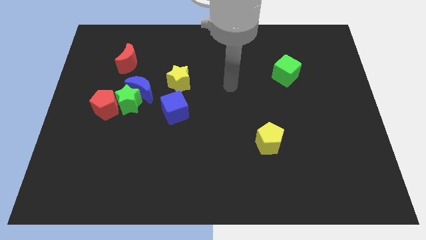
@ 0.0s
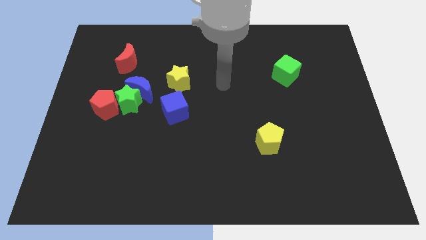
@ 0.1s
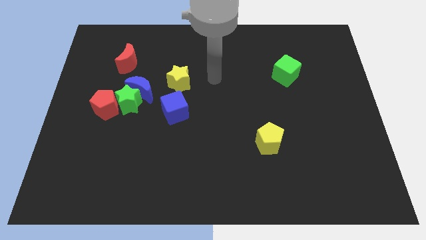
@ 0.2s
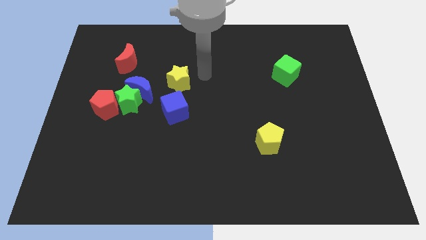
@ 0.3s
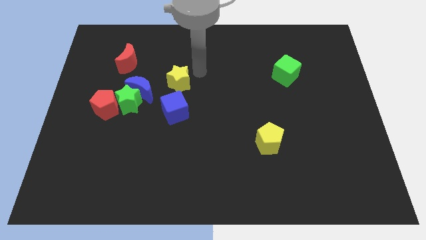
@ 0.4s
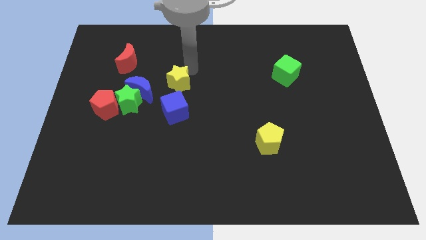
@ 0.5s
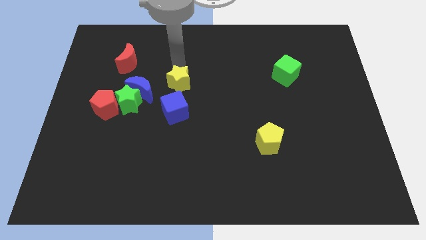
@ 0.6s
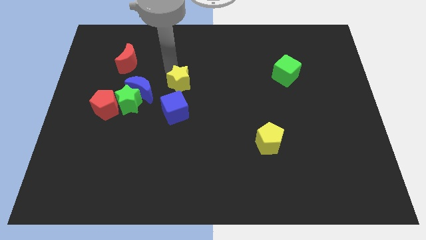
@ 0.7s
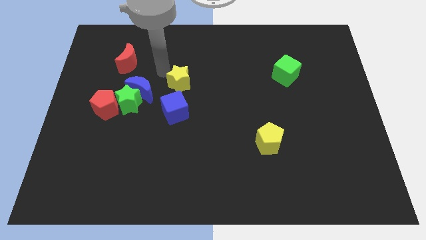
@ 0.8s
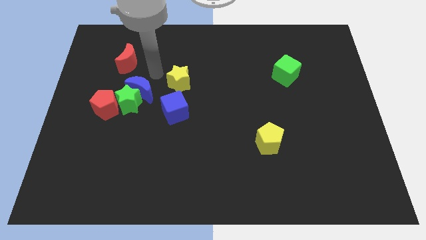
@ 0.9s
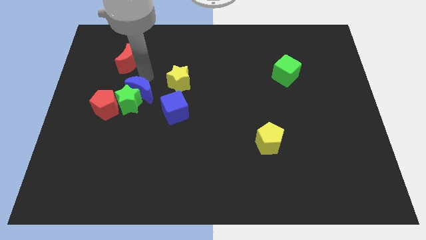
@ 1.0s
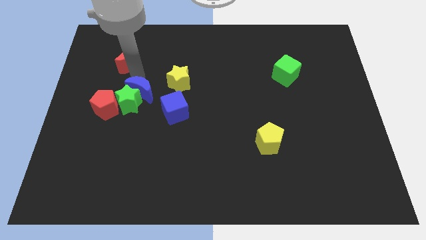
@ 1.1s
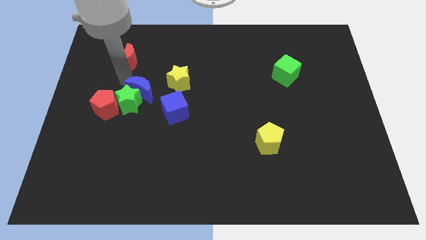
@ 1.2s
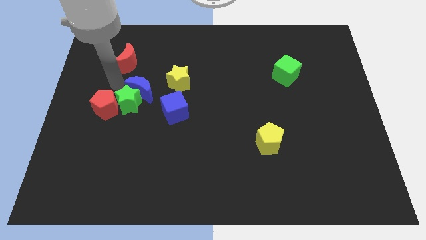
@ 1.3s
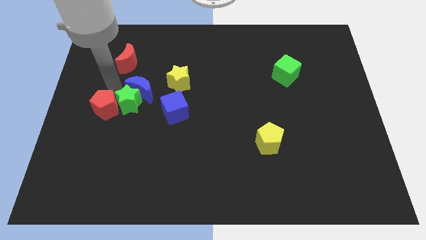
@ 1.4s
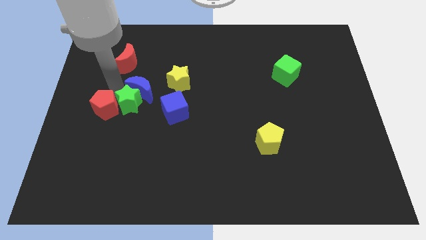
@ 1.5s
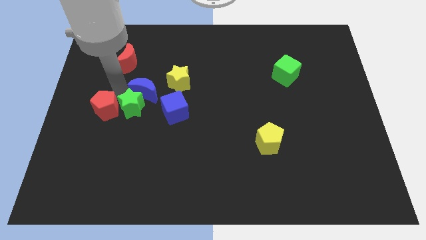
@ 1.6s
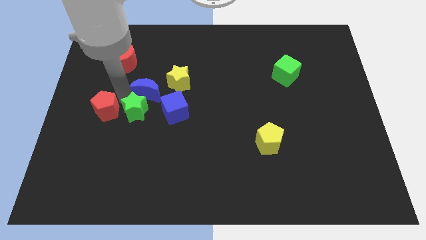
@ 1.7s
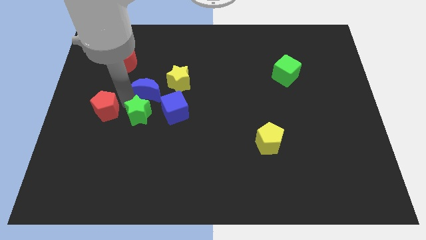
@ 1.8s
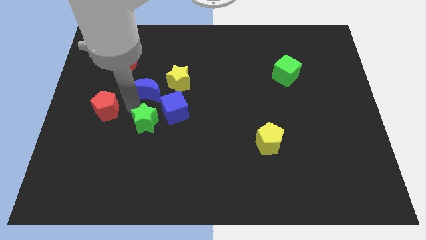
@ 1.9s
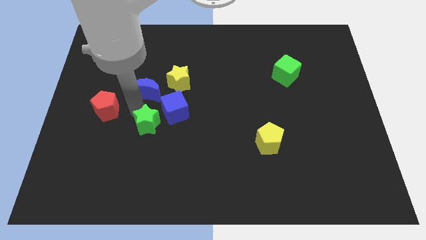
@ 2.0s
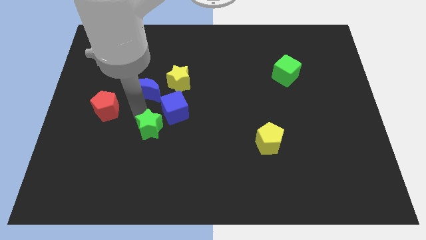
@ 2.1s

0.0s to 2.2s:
move the green star away from the blue moon and red pentagon

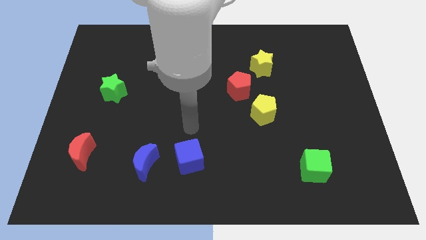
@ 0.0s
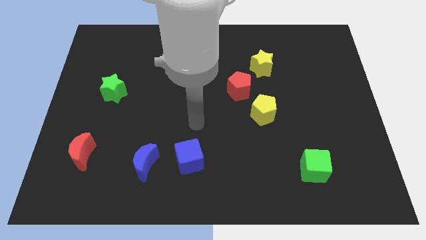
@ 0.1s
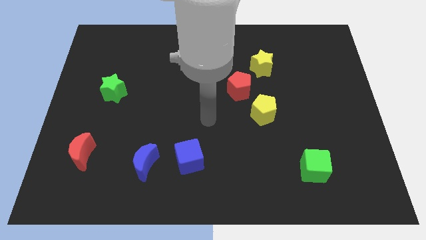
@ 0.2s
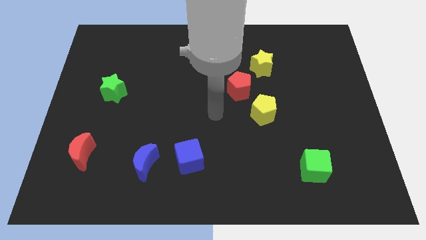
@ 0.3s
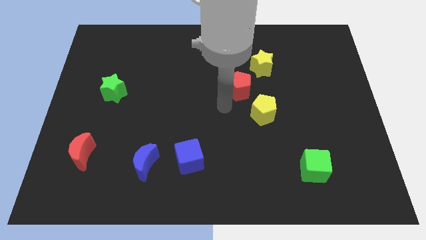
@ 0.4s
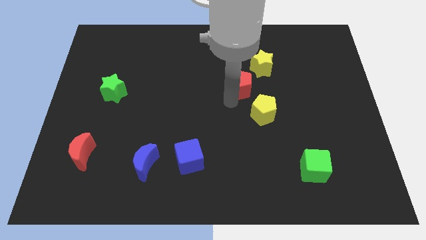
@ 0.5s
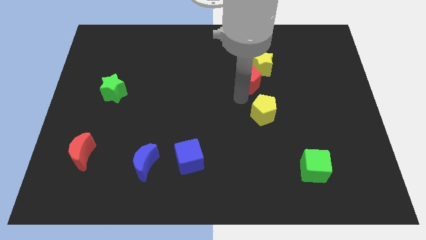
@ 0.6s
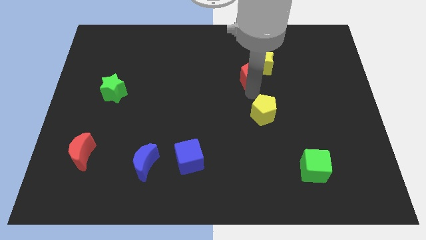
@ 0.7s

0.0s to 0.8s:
pull the yellow pentagon apart from the red pentagon

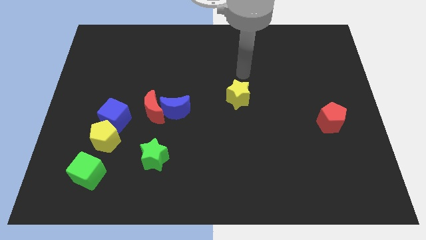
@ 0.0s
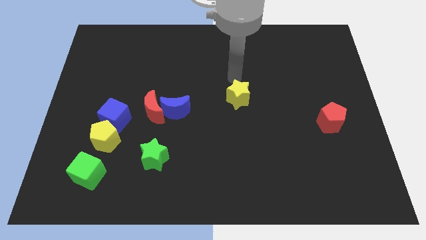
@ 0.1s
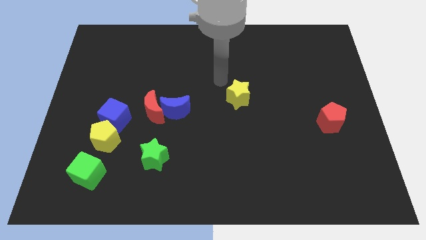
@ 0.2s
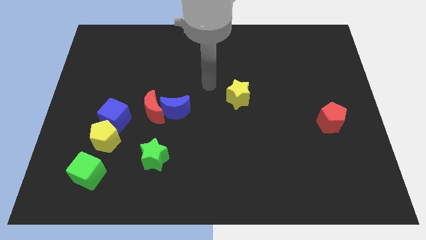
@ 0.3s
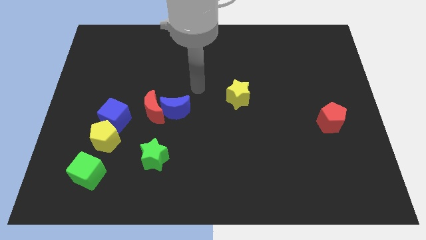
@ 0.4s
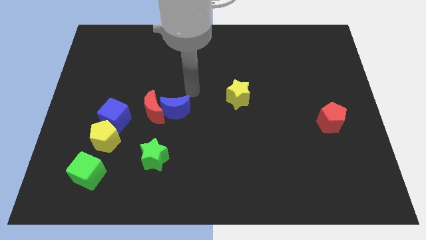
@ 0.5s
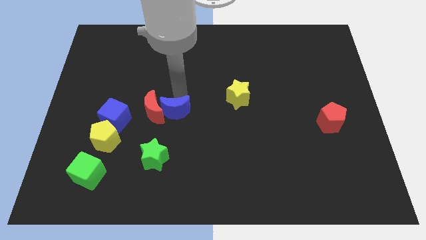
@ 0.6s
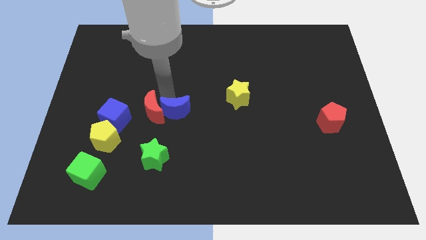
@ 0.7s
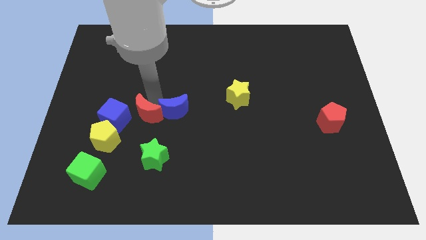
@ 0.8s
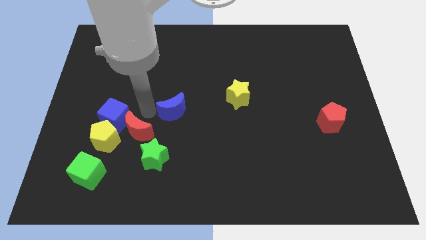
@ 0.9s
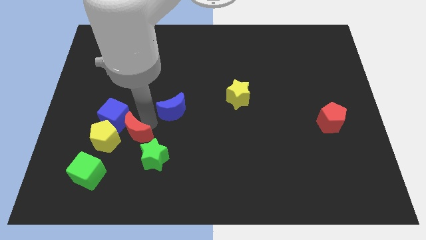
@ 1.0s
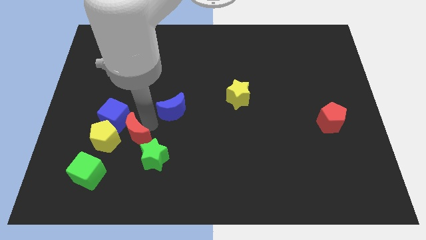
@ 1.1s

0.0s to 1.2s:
pull the blue moon apart from the red moon

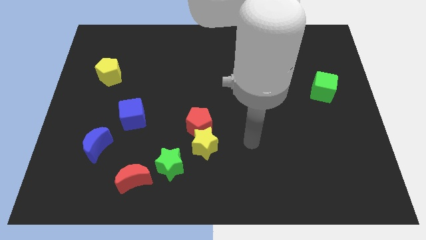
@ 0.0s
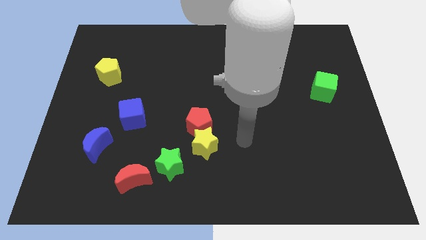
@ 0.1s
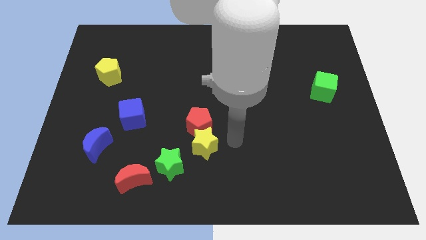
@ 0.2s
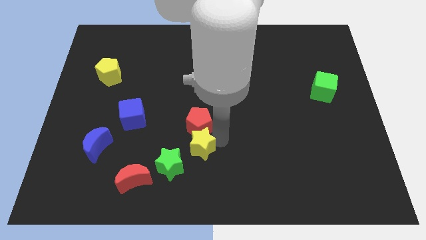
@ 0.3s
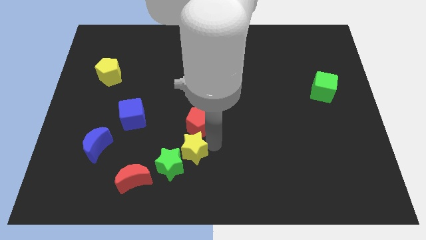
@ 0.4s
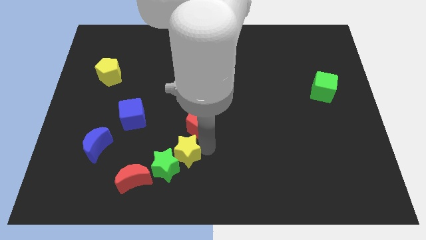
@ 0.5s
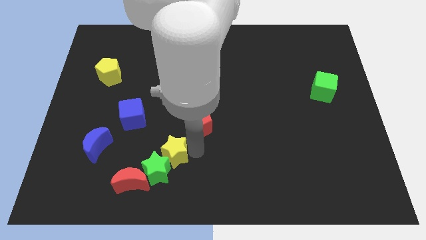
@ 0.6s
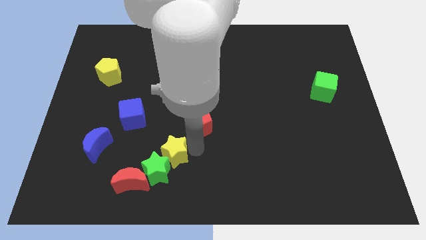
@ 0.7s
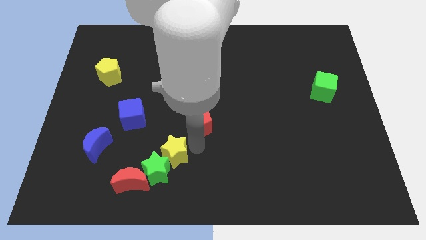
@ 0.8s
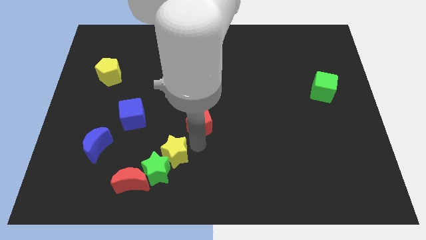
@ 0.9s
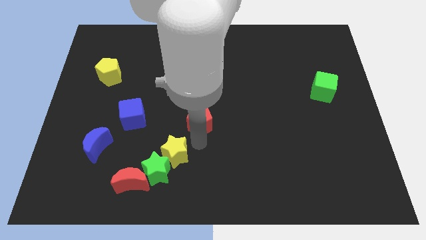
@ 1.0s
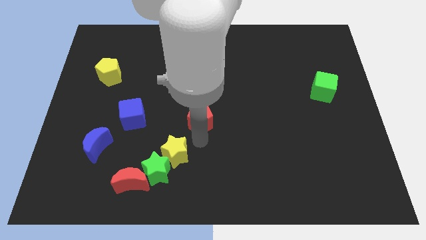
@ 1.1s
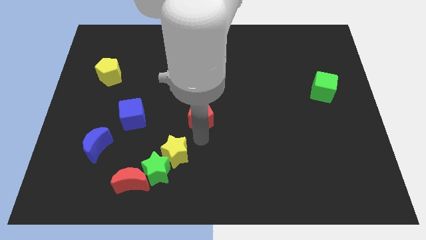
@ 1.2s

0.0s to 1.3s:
move the red pentagon away from the yellow star

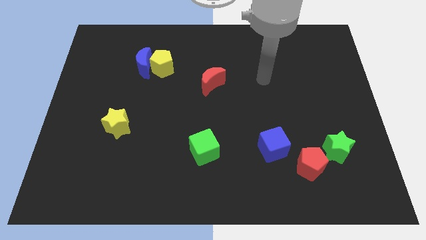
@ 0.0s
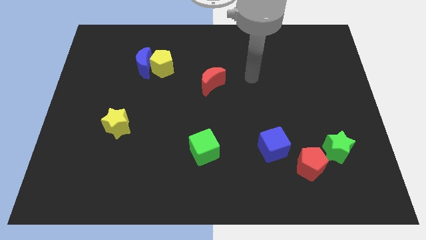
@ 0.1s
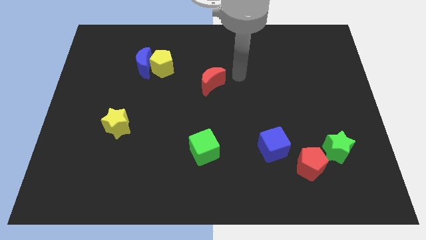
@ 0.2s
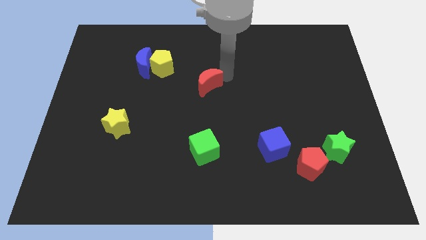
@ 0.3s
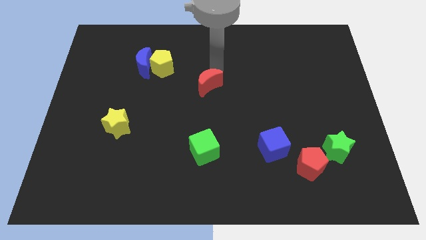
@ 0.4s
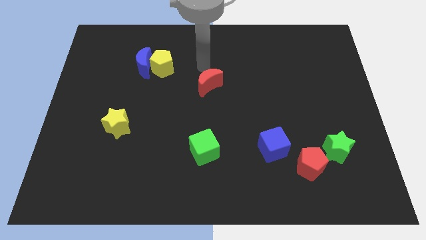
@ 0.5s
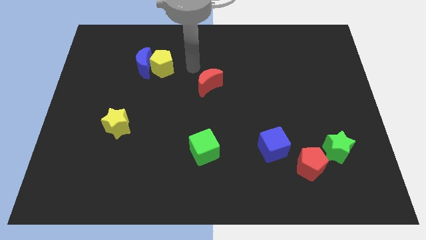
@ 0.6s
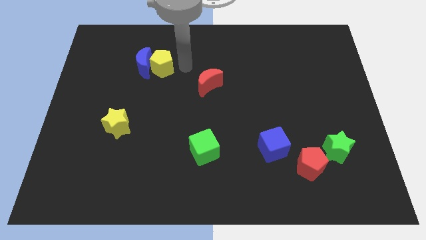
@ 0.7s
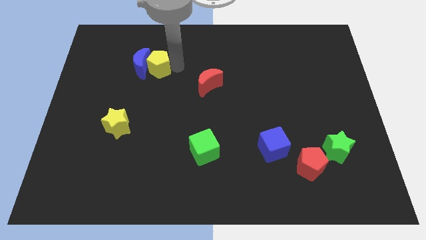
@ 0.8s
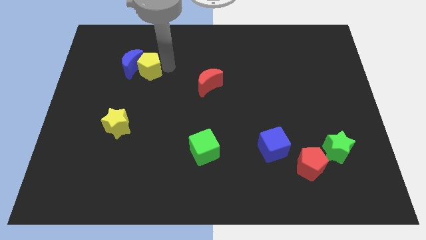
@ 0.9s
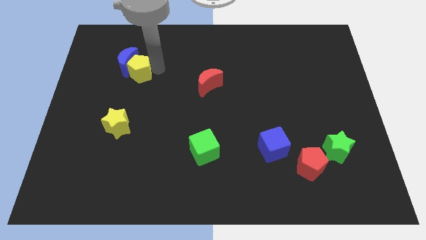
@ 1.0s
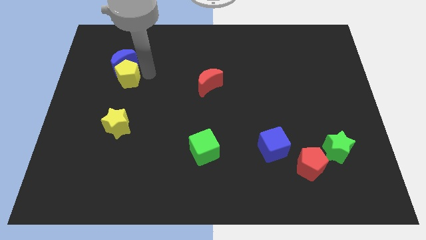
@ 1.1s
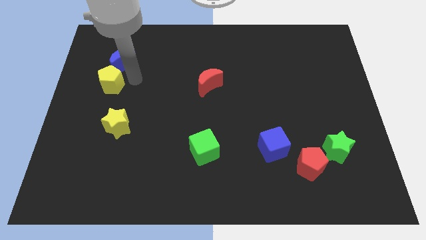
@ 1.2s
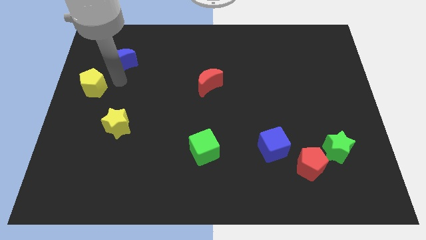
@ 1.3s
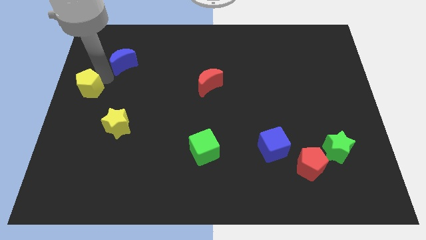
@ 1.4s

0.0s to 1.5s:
separate the blue moon from the yellow pentagon

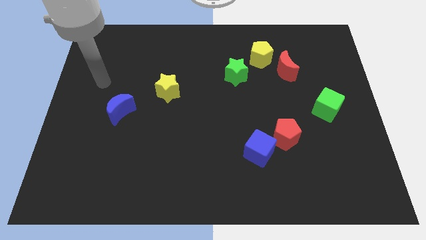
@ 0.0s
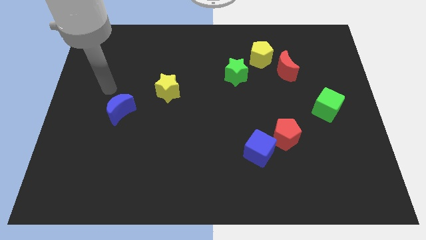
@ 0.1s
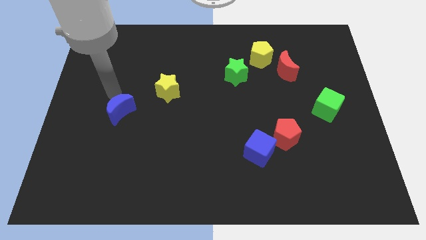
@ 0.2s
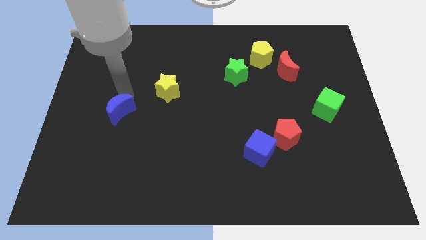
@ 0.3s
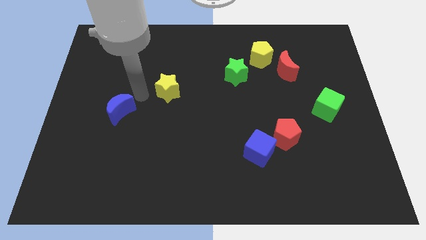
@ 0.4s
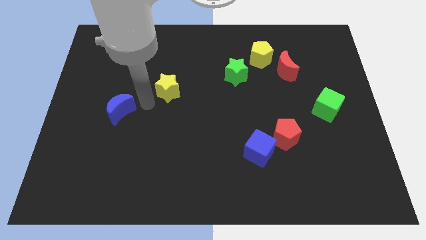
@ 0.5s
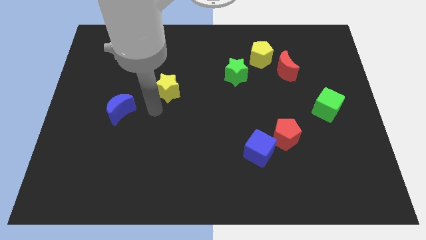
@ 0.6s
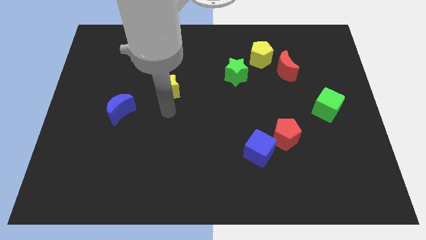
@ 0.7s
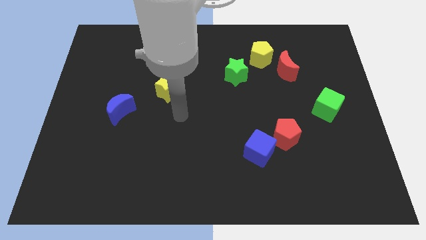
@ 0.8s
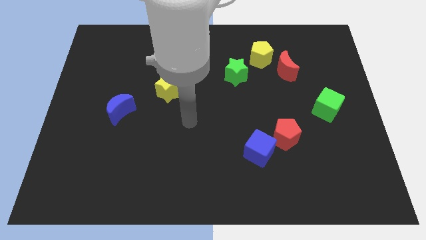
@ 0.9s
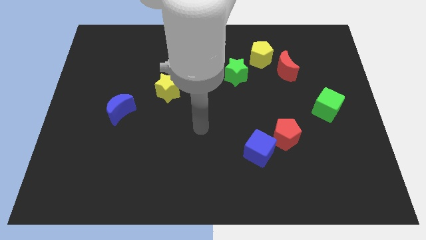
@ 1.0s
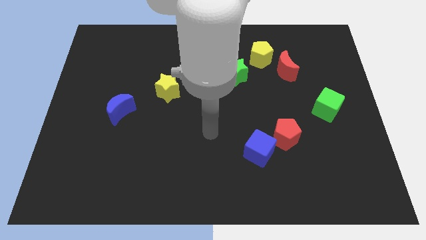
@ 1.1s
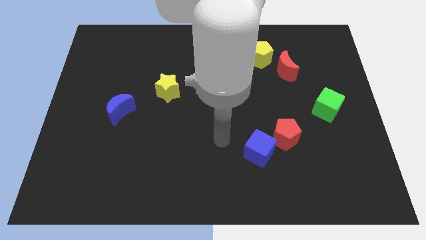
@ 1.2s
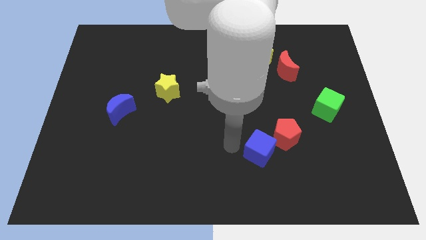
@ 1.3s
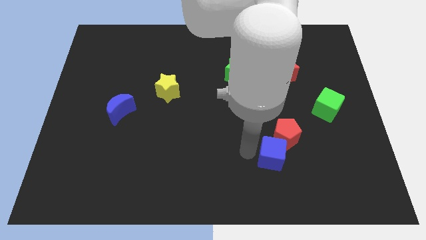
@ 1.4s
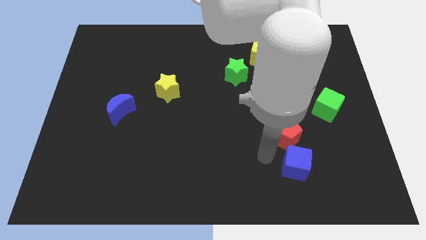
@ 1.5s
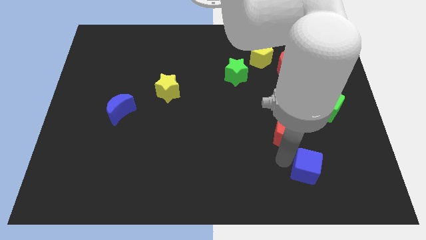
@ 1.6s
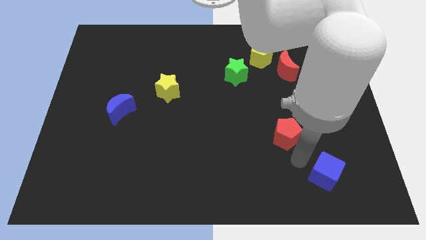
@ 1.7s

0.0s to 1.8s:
pull the red pentagon apart from the blue cube

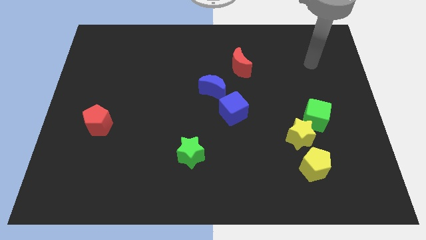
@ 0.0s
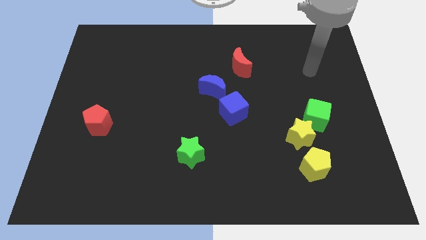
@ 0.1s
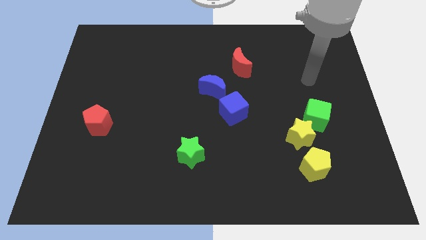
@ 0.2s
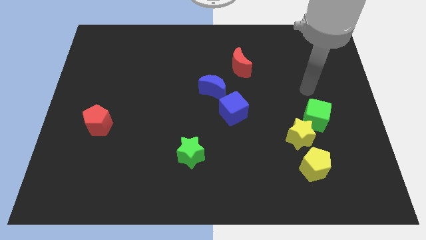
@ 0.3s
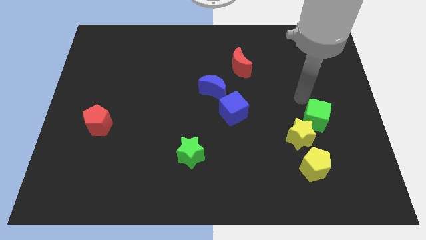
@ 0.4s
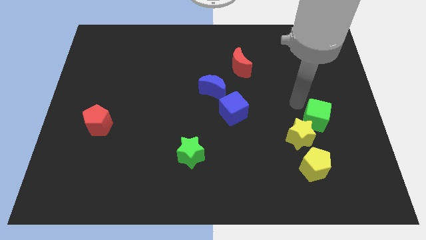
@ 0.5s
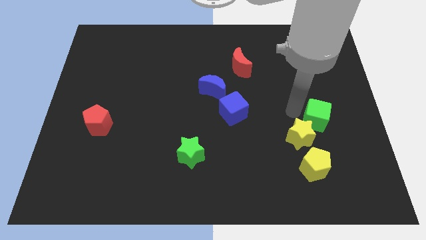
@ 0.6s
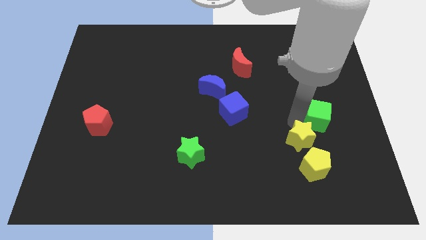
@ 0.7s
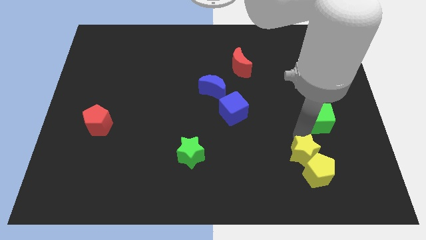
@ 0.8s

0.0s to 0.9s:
pull the green cube apart from the yellow star
